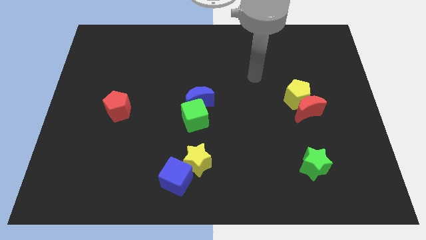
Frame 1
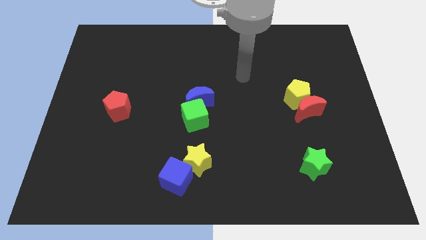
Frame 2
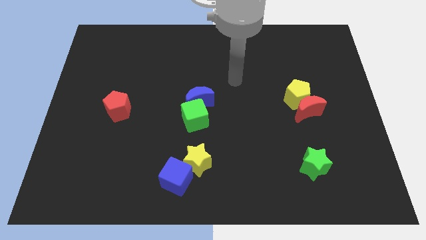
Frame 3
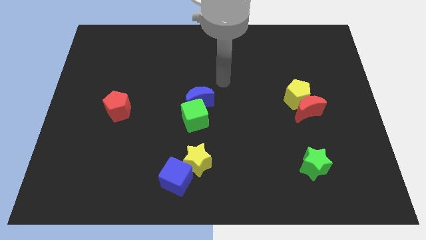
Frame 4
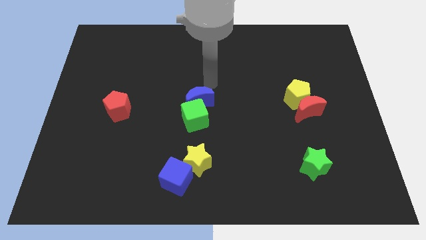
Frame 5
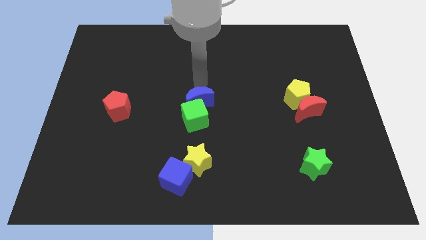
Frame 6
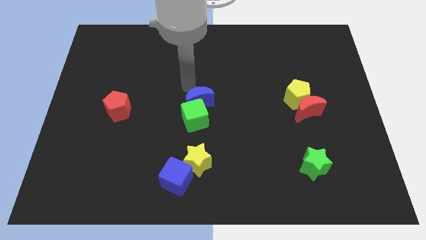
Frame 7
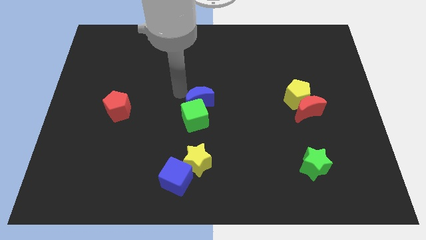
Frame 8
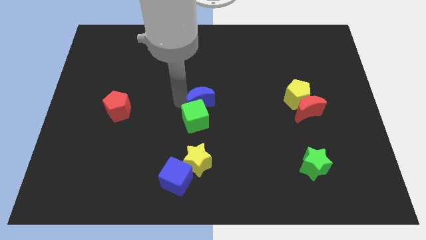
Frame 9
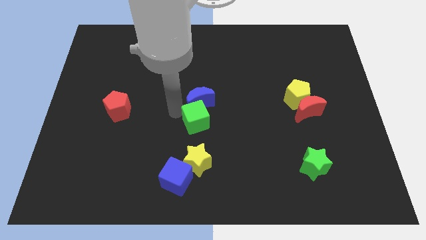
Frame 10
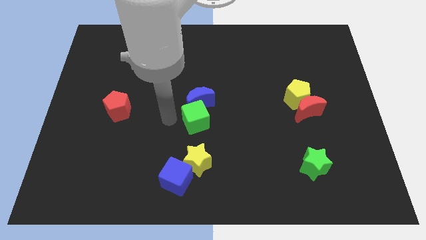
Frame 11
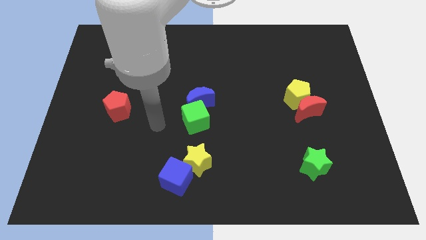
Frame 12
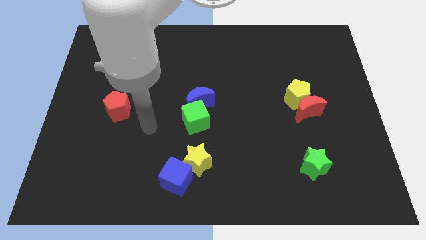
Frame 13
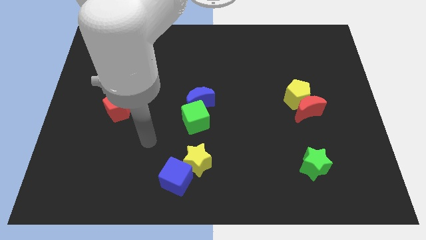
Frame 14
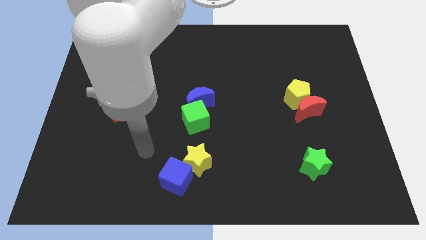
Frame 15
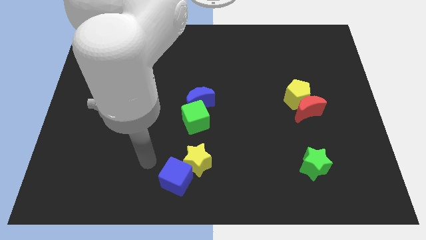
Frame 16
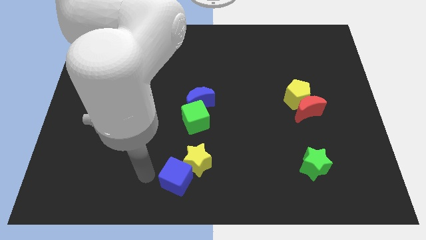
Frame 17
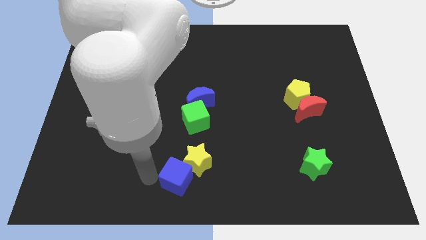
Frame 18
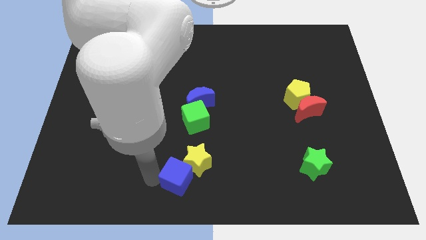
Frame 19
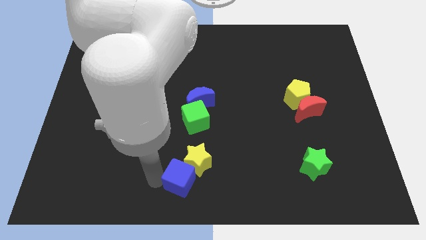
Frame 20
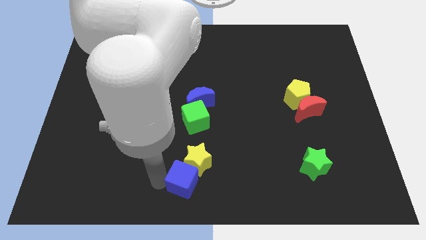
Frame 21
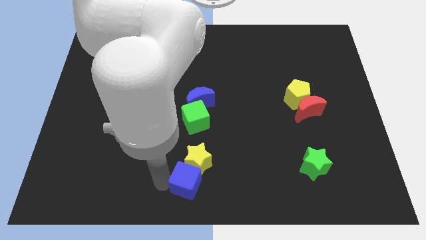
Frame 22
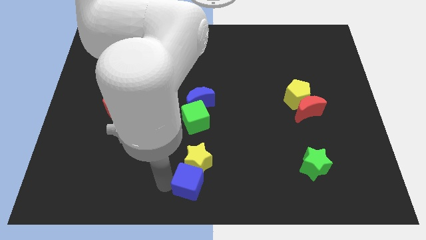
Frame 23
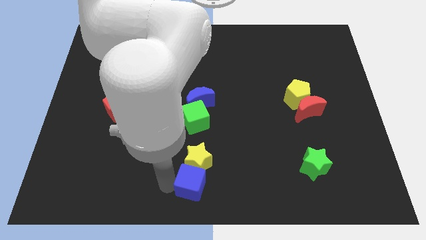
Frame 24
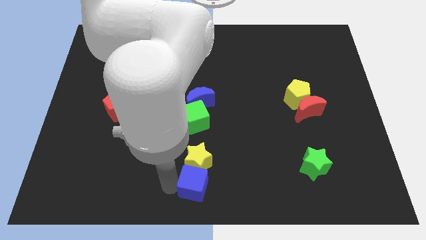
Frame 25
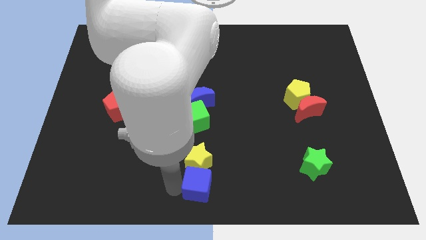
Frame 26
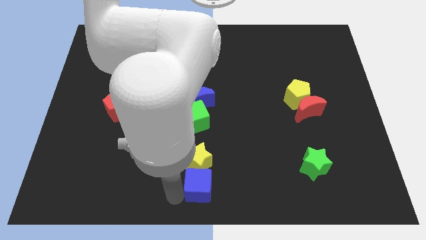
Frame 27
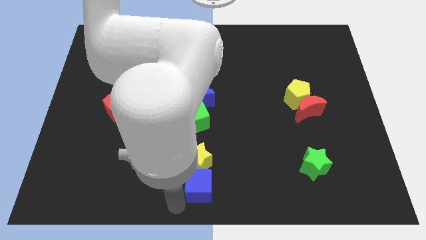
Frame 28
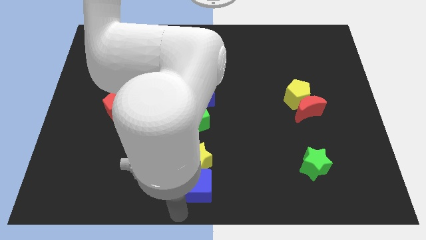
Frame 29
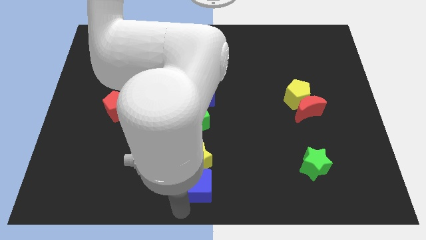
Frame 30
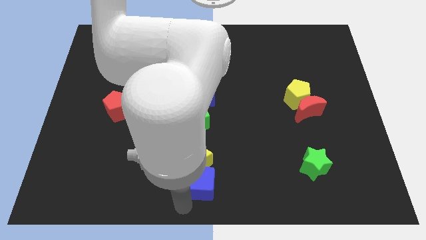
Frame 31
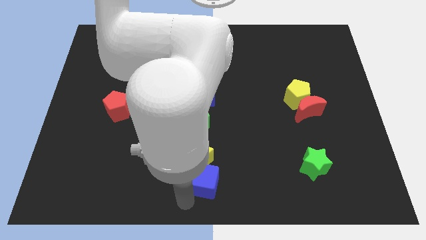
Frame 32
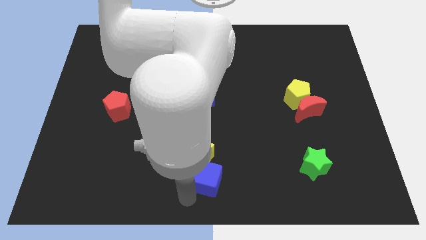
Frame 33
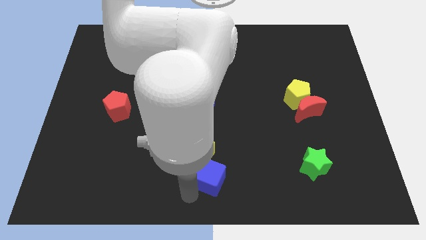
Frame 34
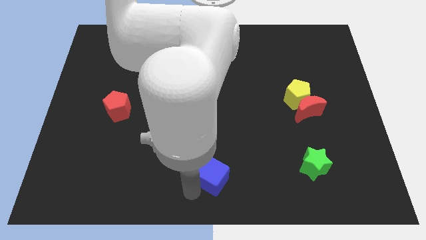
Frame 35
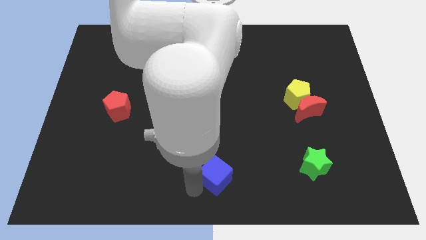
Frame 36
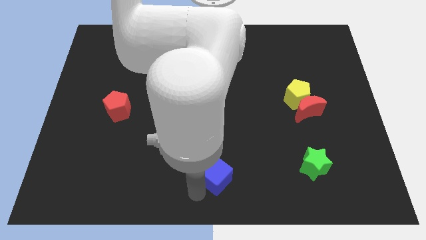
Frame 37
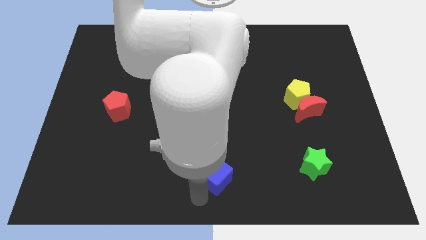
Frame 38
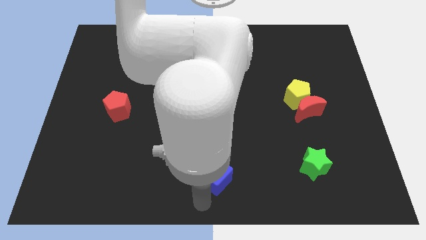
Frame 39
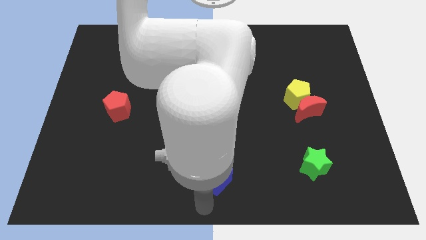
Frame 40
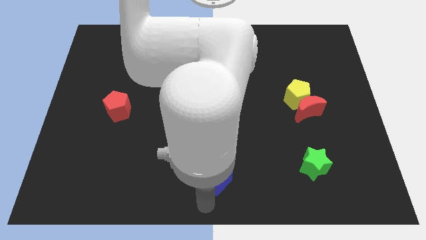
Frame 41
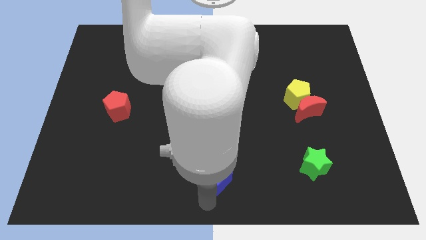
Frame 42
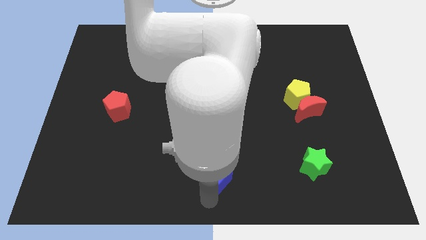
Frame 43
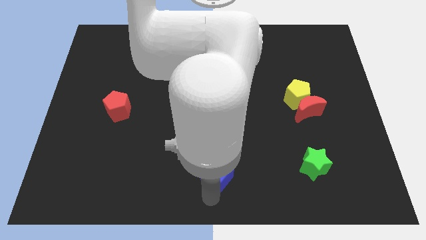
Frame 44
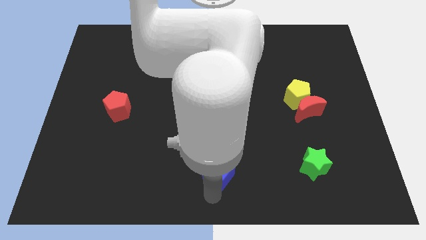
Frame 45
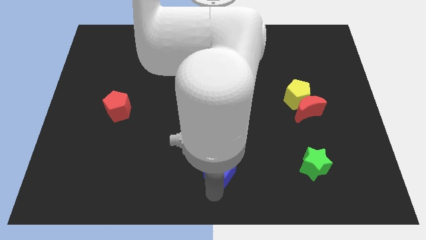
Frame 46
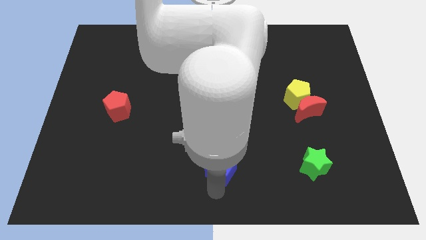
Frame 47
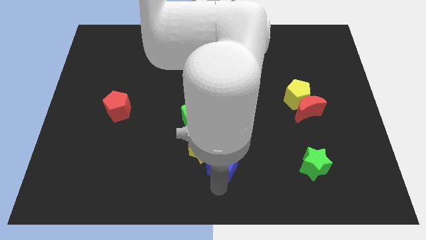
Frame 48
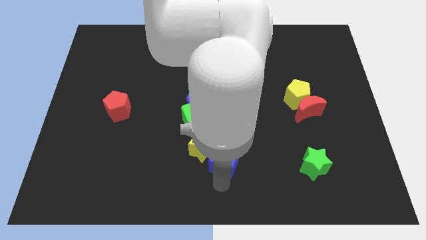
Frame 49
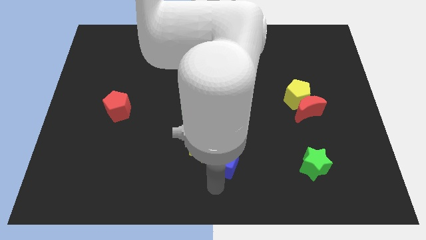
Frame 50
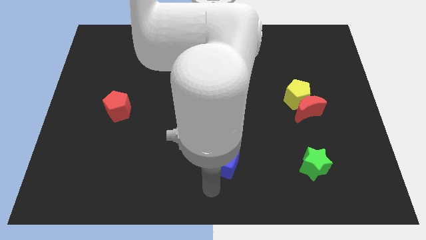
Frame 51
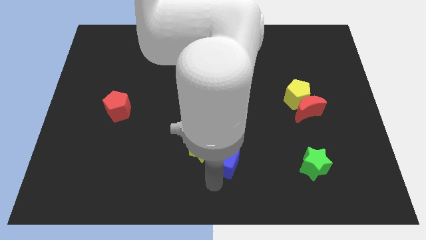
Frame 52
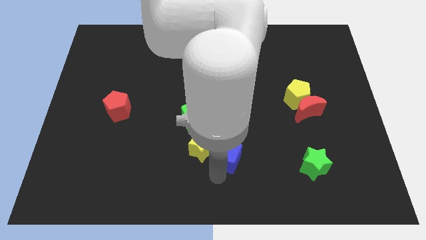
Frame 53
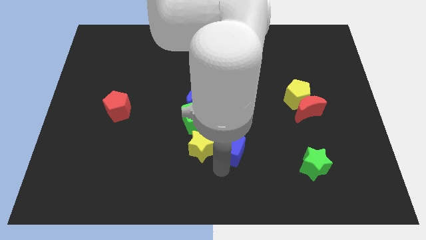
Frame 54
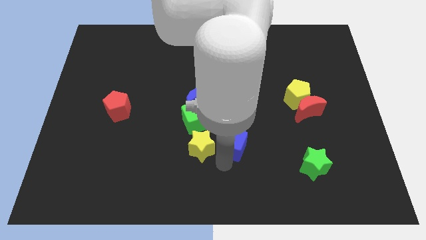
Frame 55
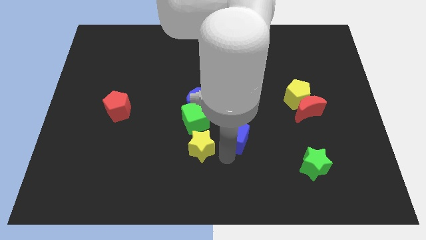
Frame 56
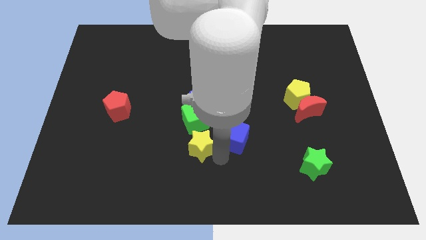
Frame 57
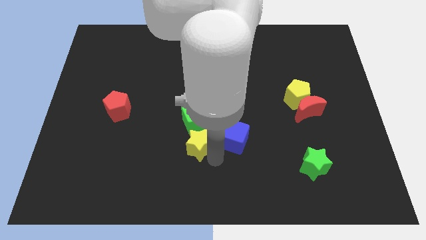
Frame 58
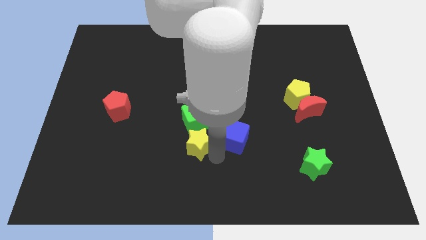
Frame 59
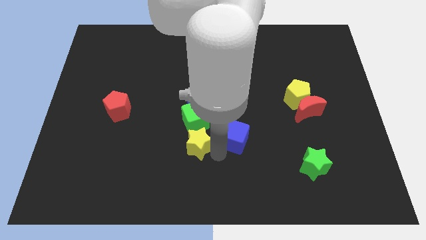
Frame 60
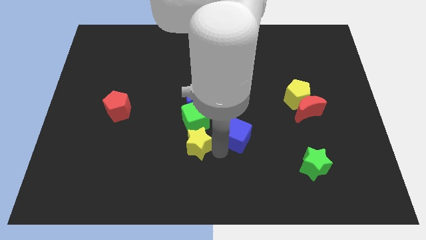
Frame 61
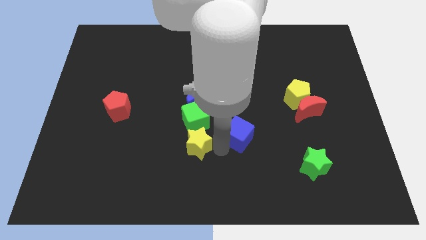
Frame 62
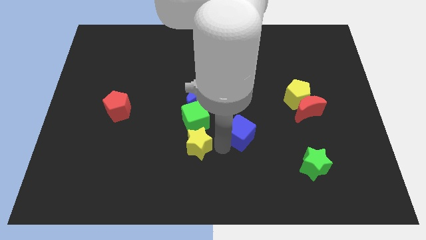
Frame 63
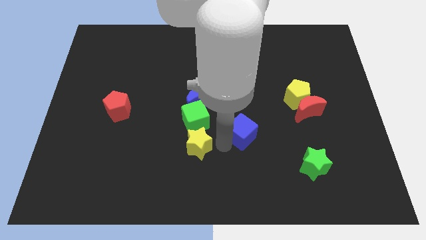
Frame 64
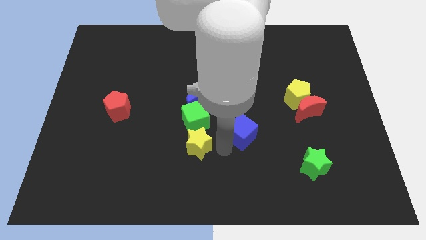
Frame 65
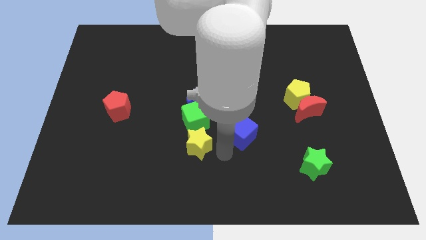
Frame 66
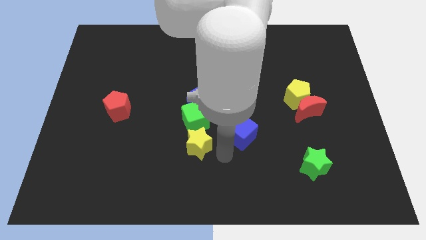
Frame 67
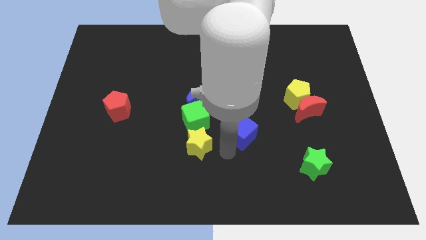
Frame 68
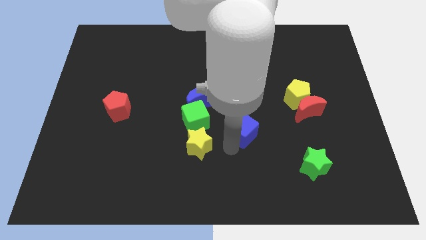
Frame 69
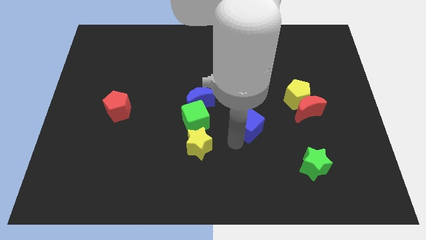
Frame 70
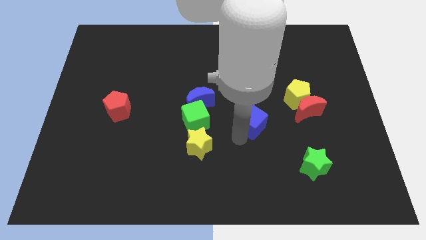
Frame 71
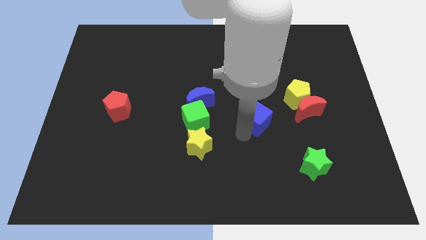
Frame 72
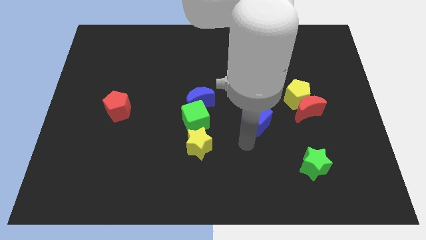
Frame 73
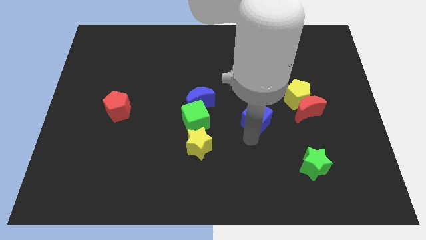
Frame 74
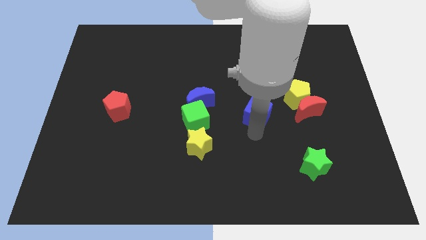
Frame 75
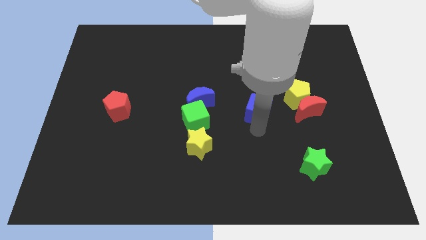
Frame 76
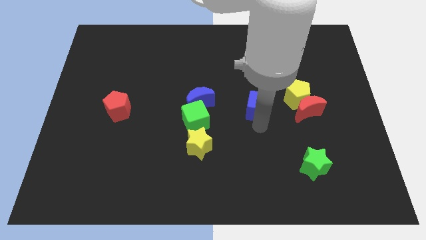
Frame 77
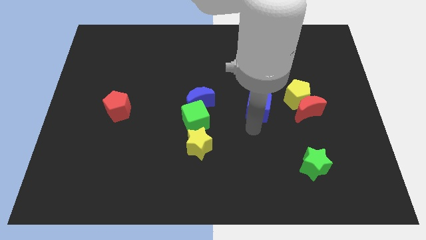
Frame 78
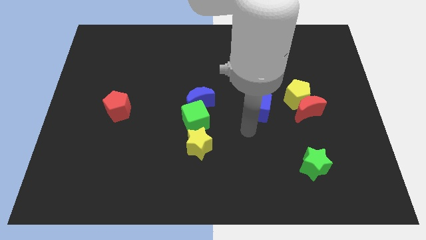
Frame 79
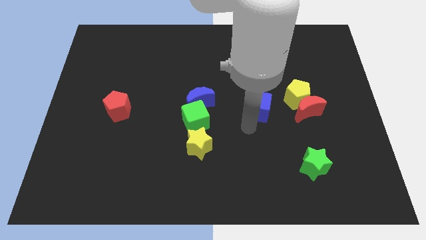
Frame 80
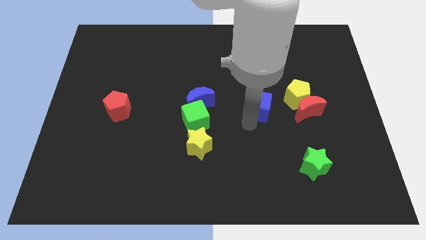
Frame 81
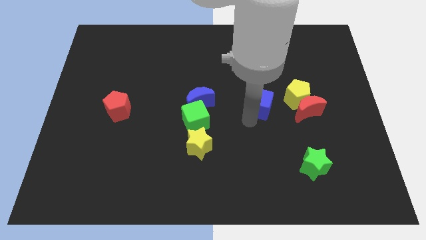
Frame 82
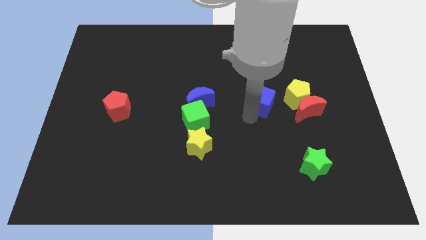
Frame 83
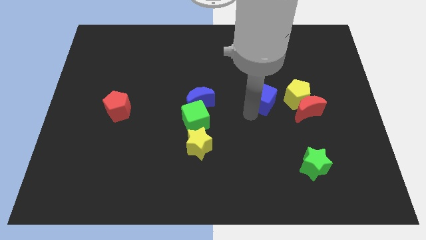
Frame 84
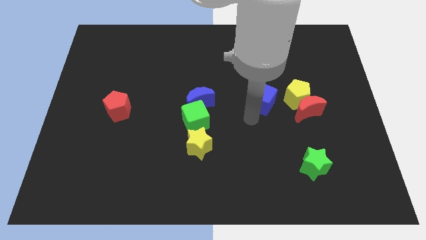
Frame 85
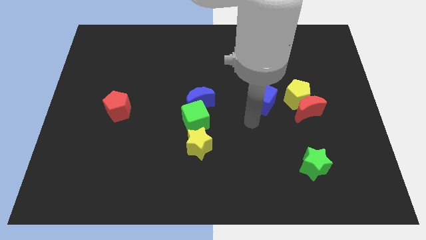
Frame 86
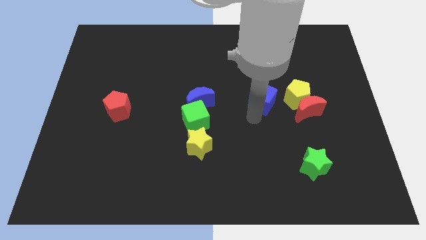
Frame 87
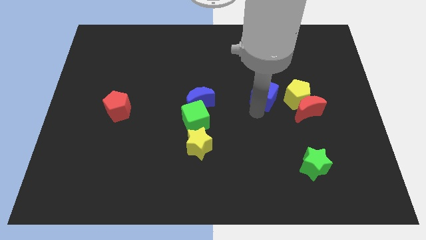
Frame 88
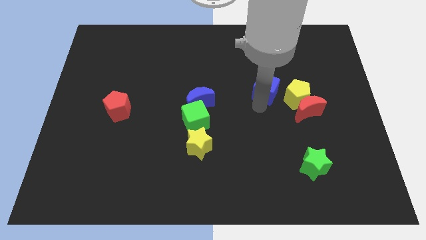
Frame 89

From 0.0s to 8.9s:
slide the blue cube to the top left side of the yellow pentagon
